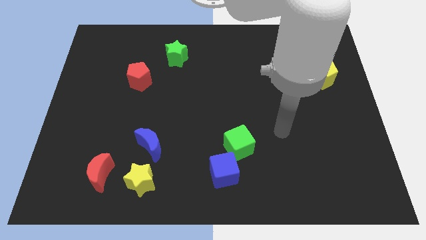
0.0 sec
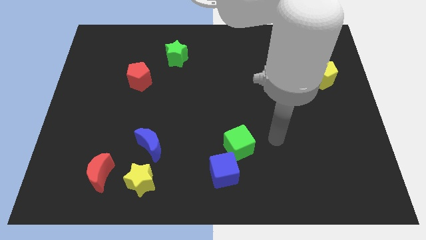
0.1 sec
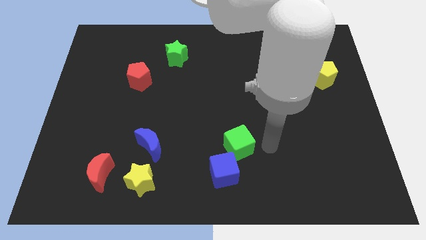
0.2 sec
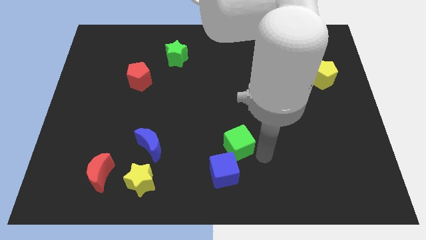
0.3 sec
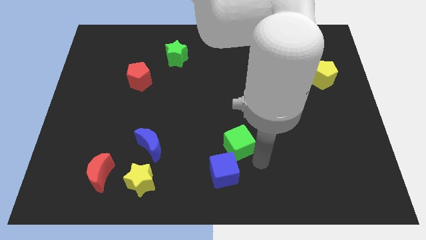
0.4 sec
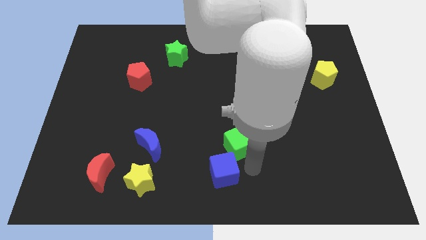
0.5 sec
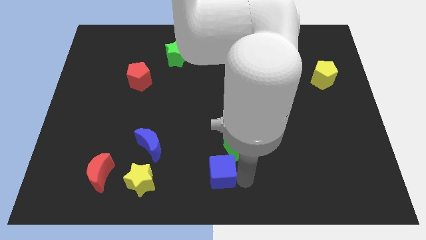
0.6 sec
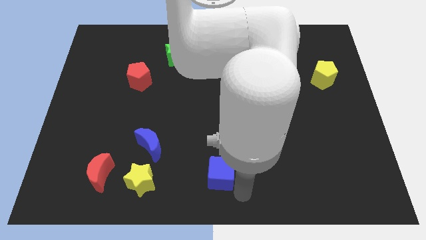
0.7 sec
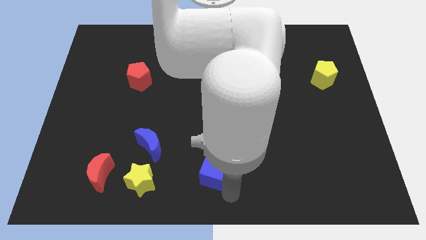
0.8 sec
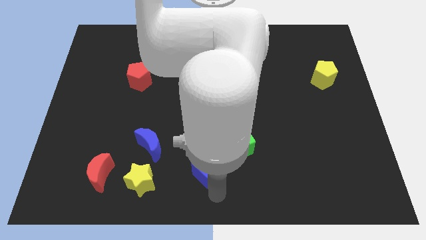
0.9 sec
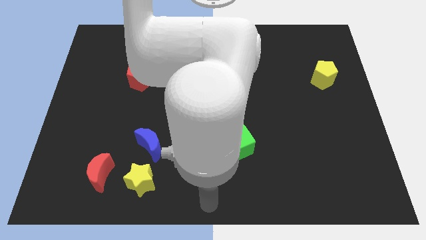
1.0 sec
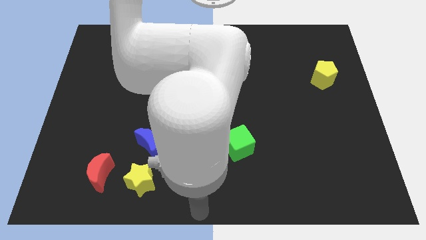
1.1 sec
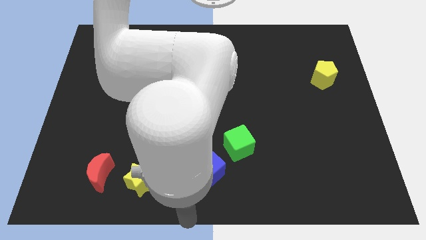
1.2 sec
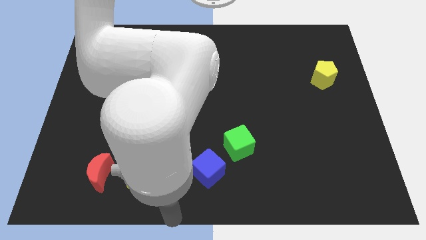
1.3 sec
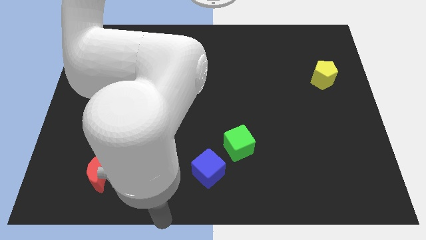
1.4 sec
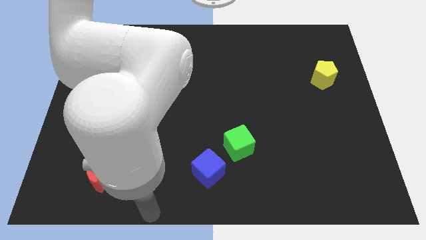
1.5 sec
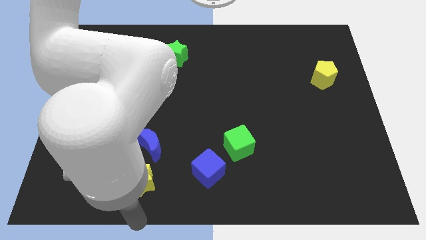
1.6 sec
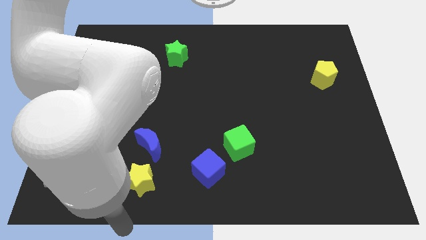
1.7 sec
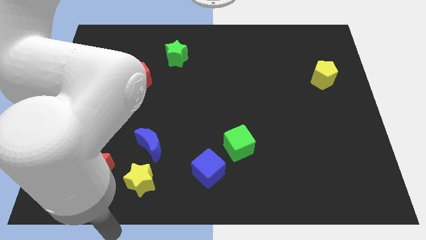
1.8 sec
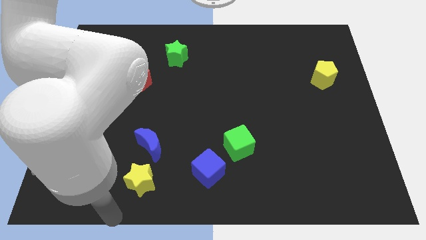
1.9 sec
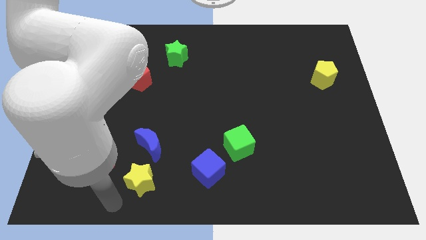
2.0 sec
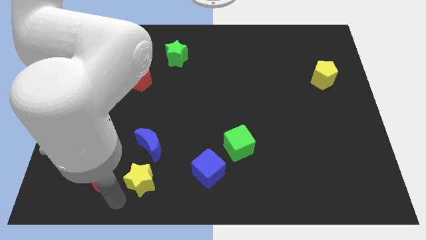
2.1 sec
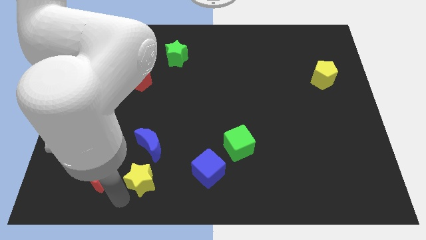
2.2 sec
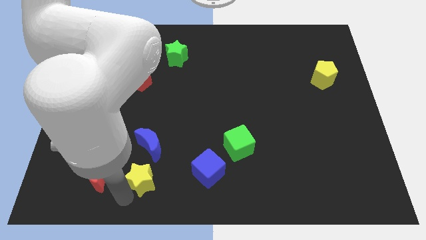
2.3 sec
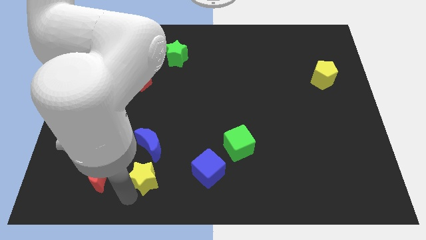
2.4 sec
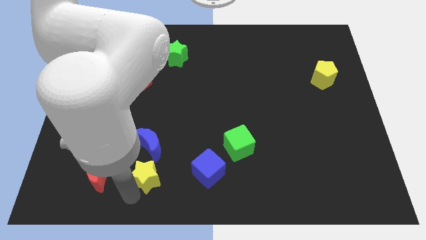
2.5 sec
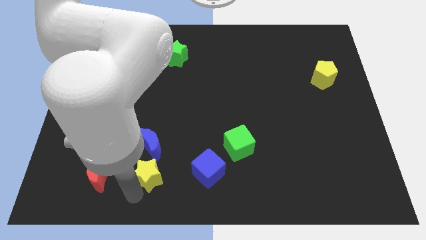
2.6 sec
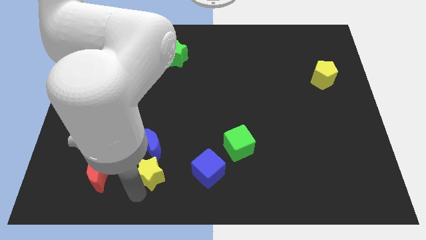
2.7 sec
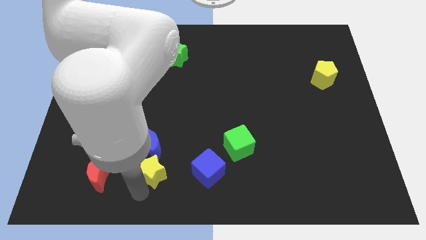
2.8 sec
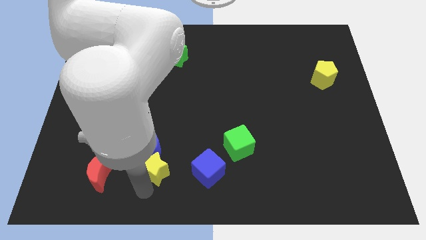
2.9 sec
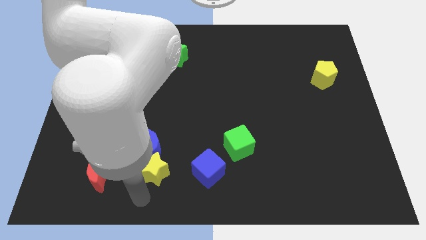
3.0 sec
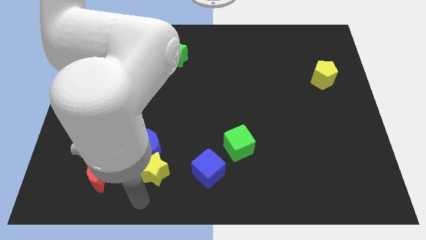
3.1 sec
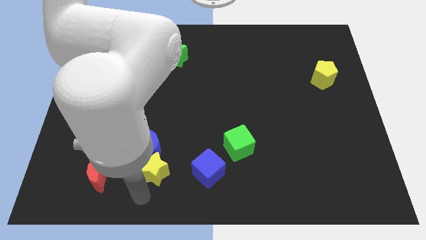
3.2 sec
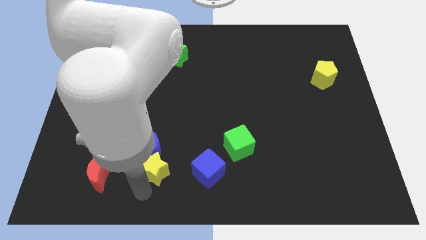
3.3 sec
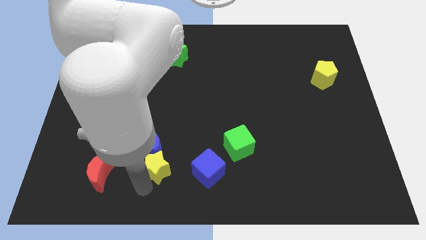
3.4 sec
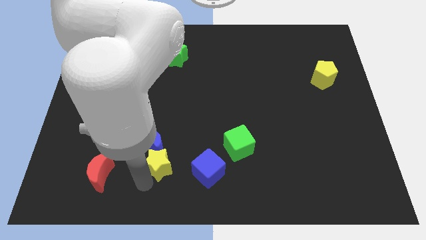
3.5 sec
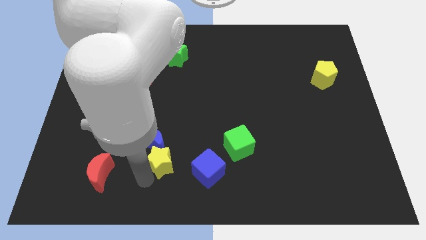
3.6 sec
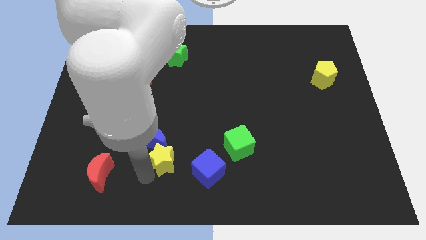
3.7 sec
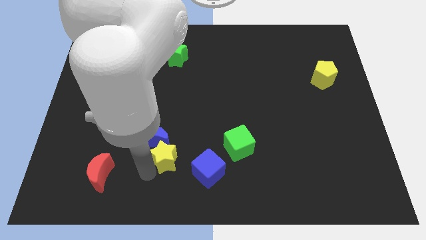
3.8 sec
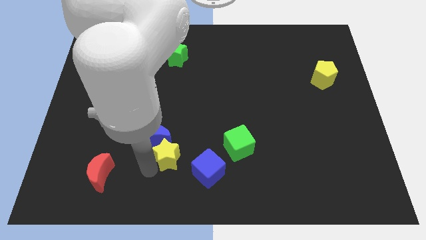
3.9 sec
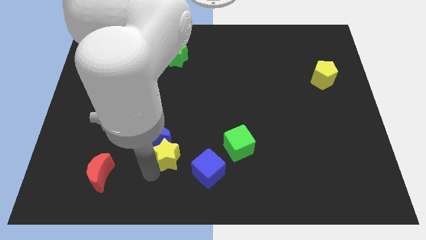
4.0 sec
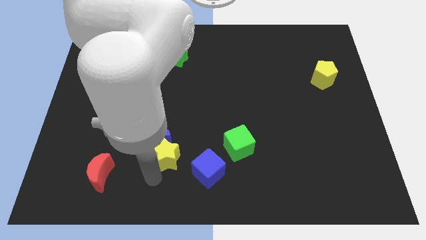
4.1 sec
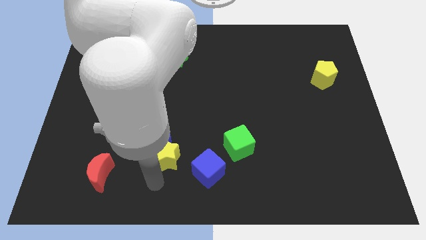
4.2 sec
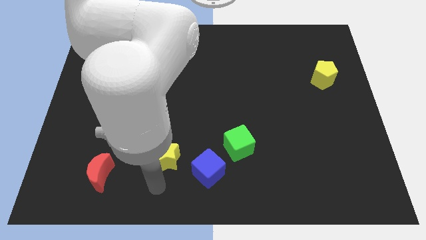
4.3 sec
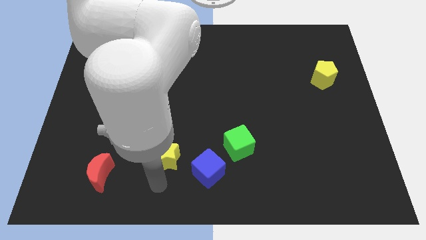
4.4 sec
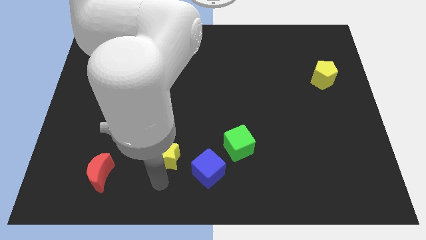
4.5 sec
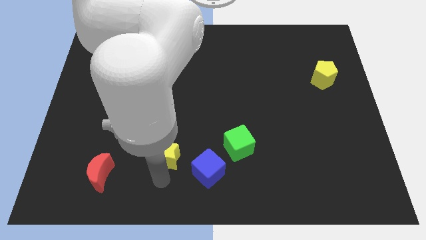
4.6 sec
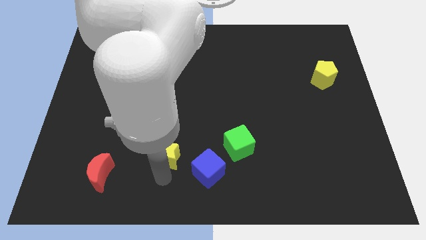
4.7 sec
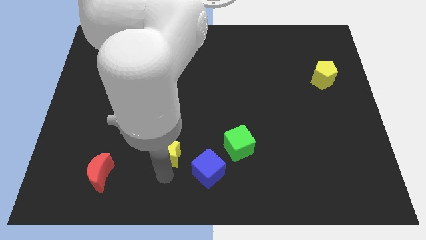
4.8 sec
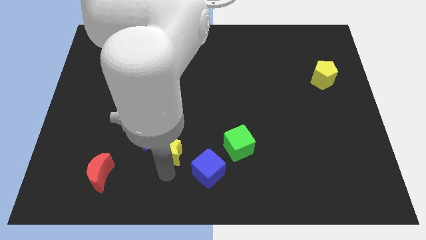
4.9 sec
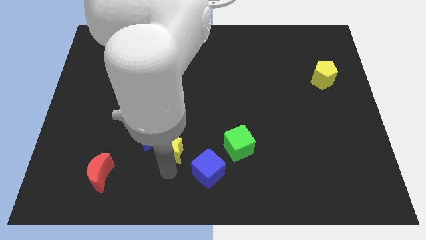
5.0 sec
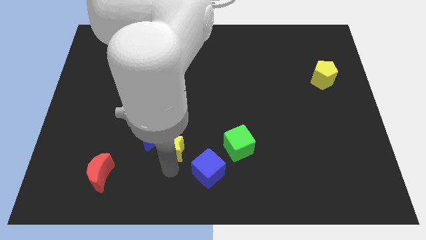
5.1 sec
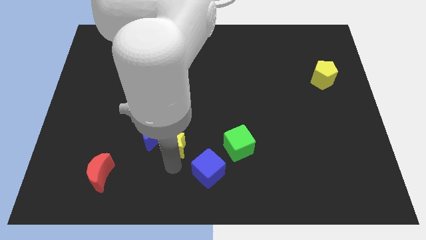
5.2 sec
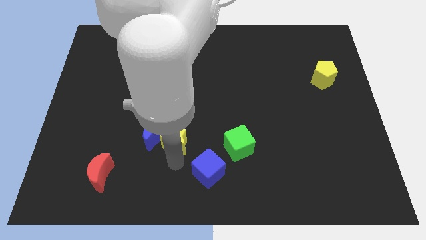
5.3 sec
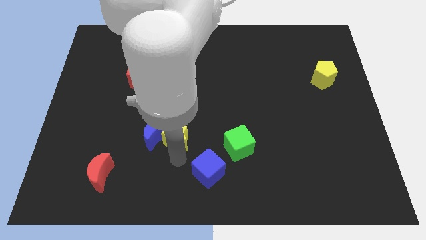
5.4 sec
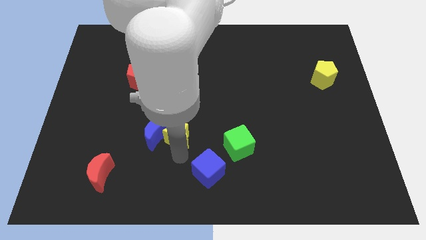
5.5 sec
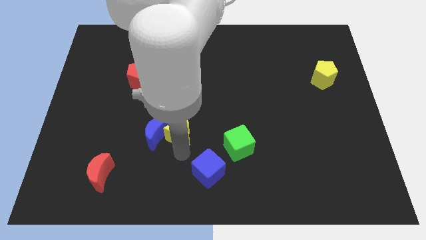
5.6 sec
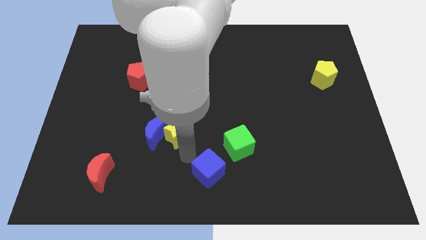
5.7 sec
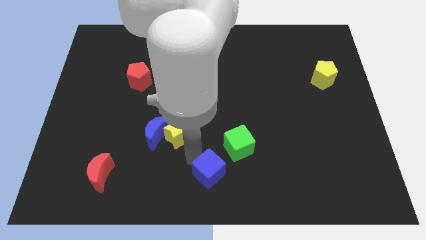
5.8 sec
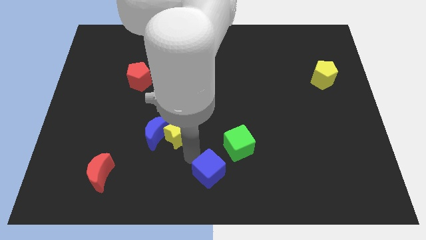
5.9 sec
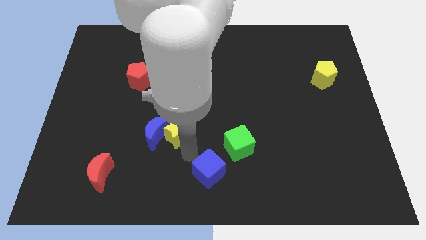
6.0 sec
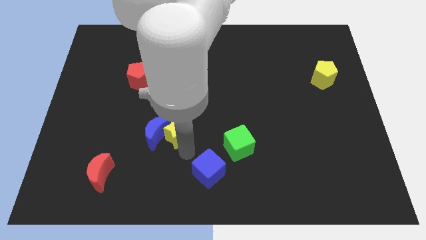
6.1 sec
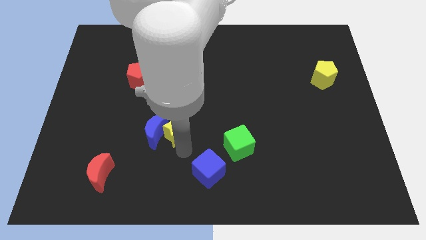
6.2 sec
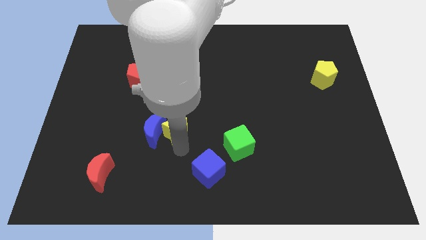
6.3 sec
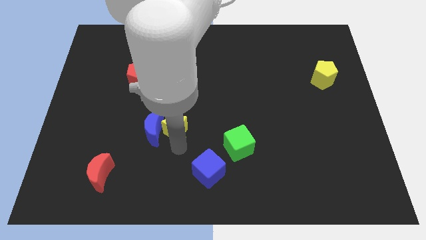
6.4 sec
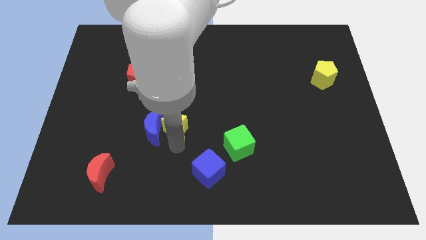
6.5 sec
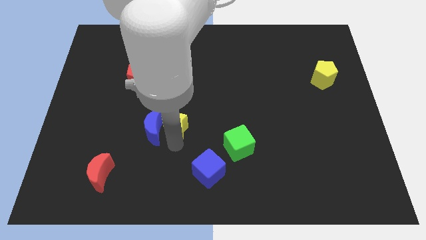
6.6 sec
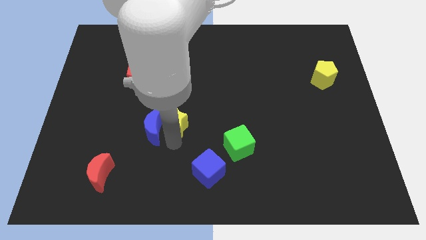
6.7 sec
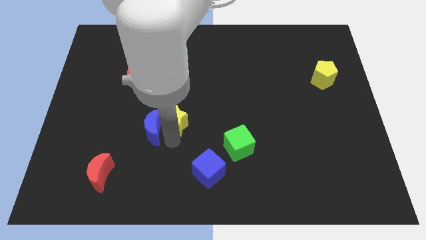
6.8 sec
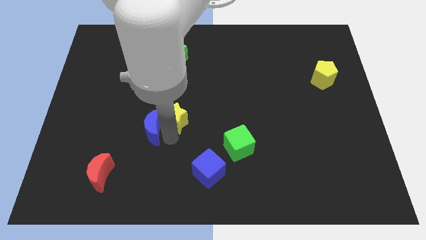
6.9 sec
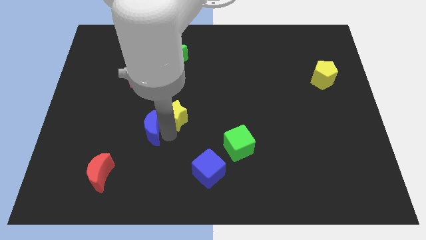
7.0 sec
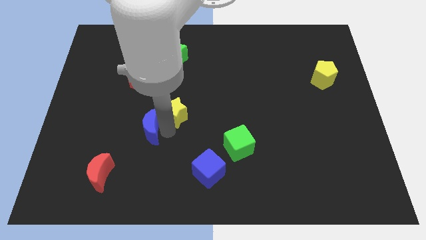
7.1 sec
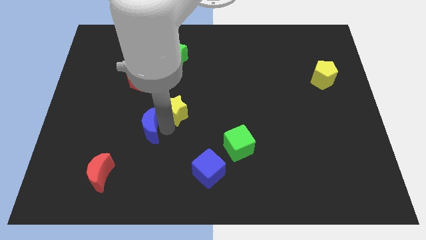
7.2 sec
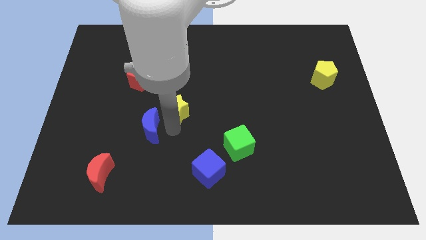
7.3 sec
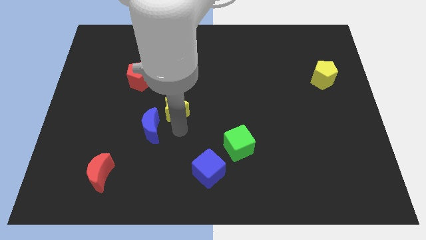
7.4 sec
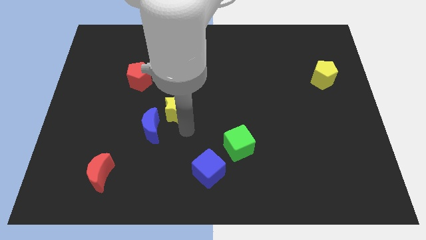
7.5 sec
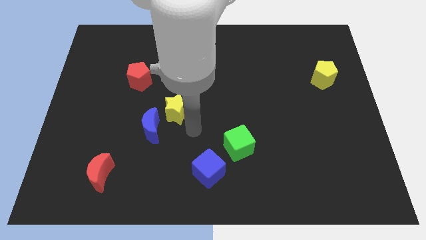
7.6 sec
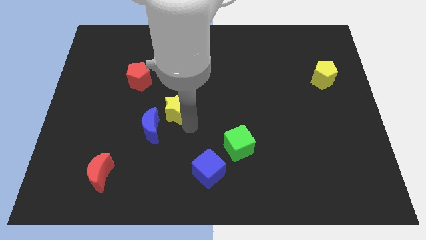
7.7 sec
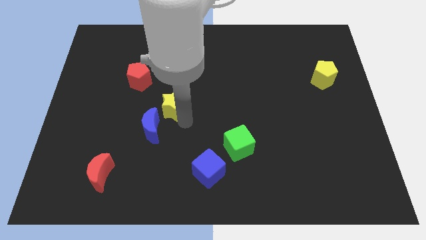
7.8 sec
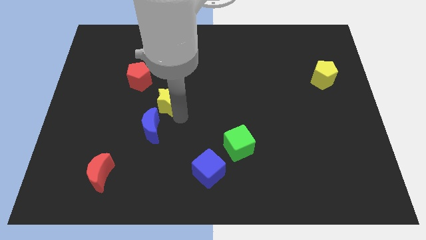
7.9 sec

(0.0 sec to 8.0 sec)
move the yellow star upwards
